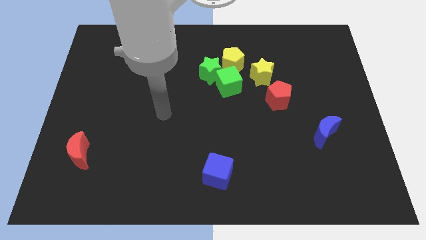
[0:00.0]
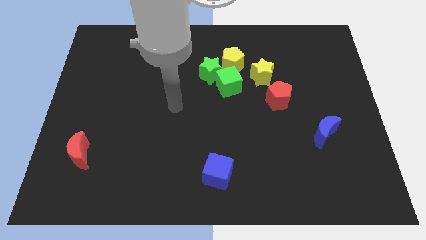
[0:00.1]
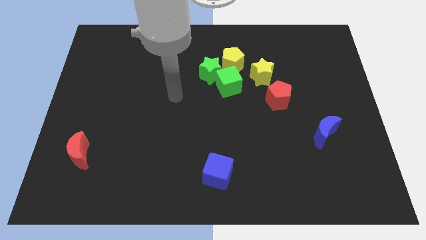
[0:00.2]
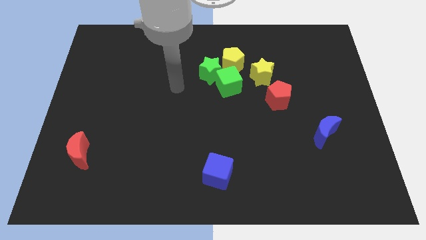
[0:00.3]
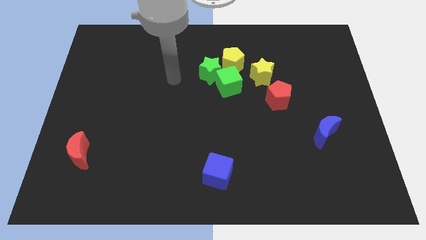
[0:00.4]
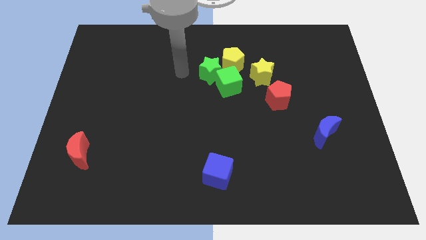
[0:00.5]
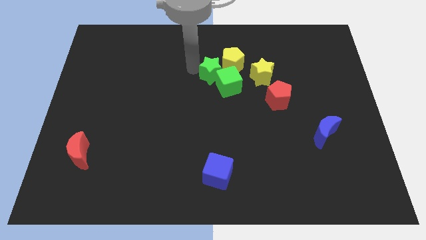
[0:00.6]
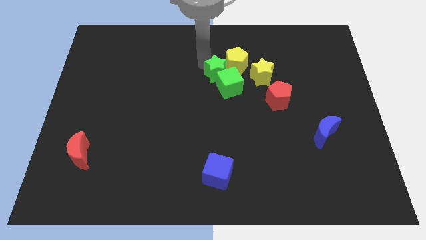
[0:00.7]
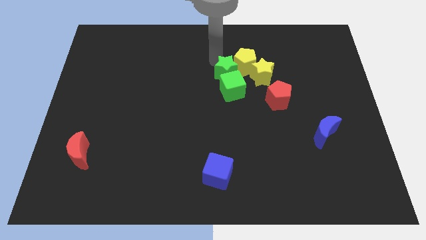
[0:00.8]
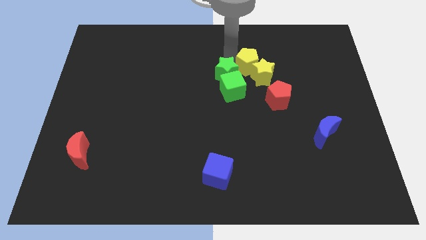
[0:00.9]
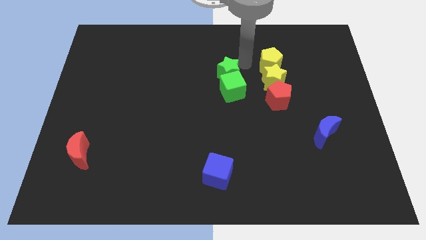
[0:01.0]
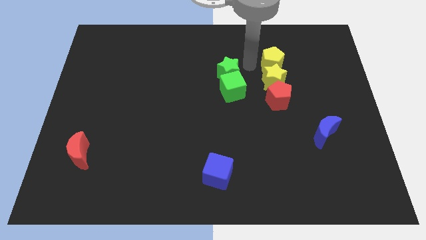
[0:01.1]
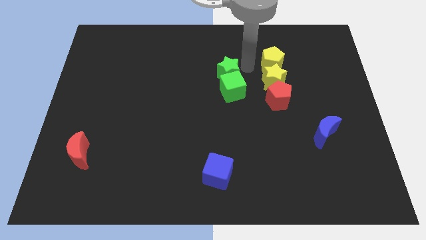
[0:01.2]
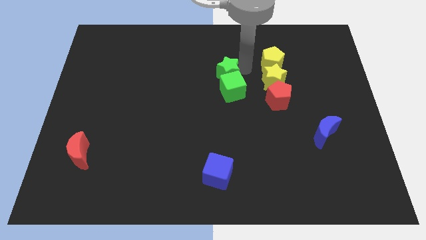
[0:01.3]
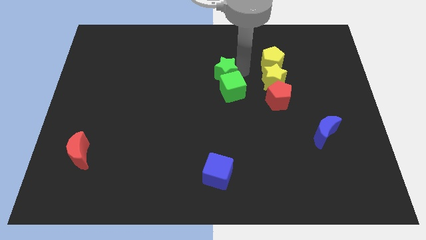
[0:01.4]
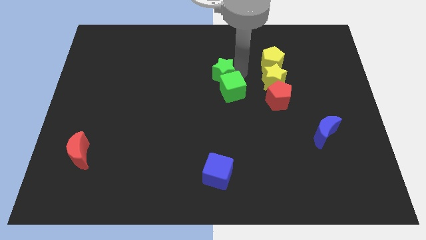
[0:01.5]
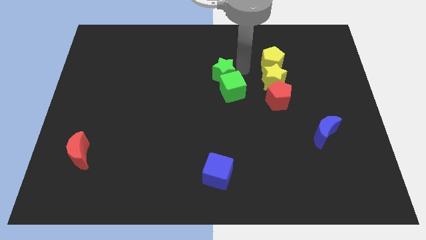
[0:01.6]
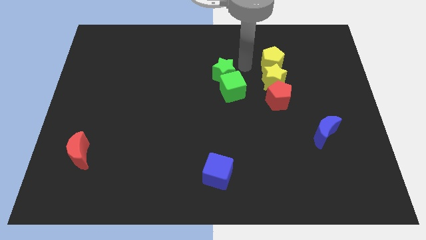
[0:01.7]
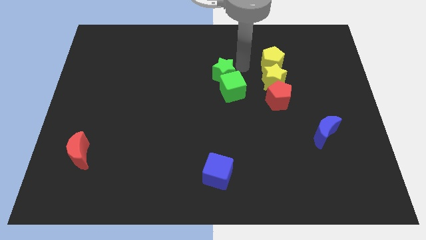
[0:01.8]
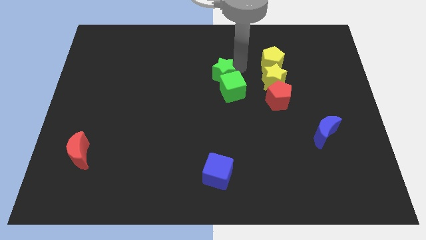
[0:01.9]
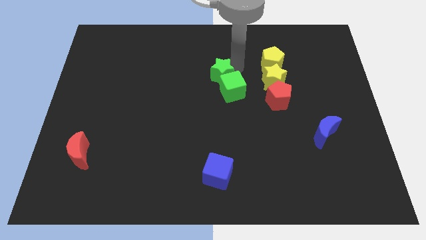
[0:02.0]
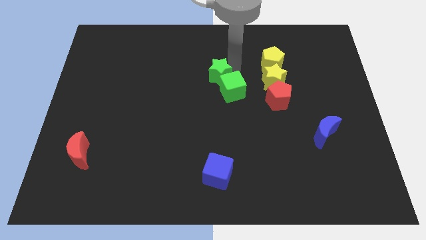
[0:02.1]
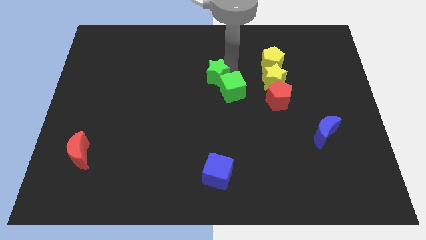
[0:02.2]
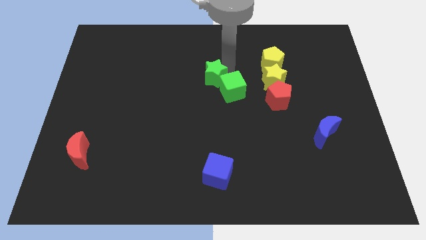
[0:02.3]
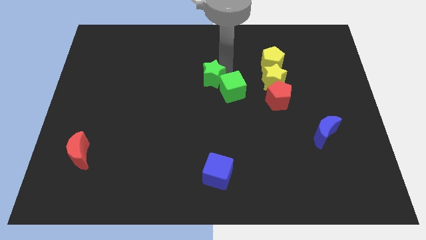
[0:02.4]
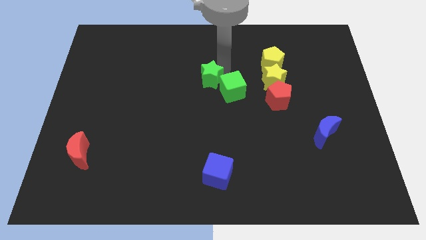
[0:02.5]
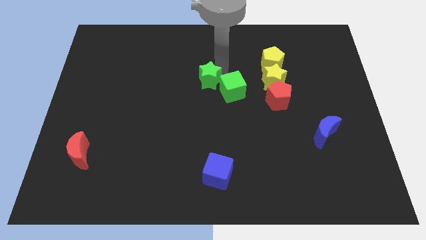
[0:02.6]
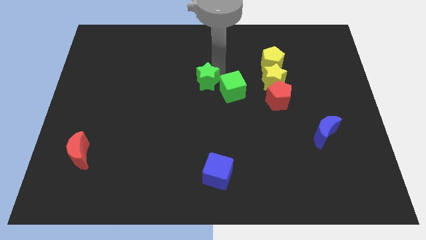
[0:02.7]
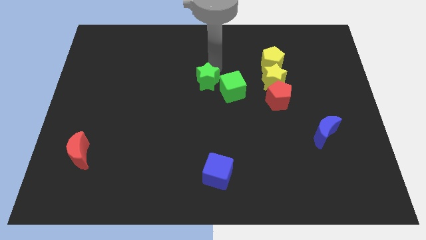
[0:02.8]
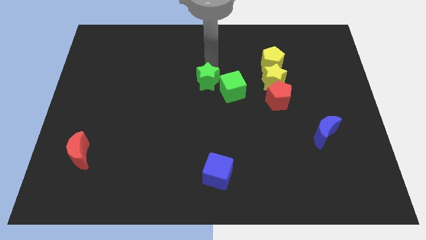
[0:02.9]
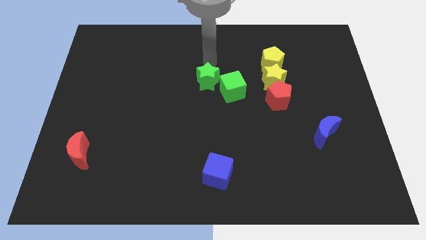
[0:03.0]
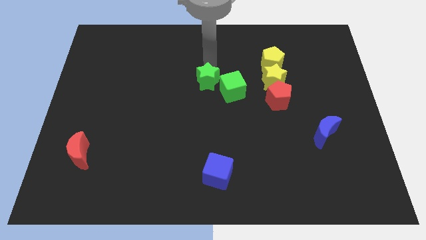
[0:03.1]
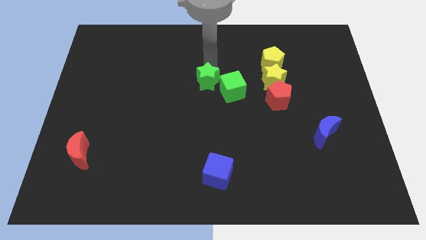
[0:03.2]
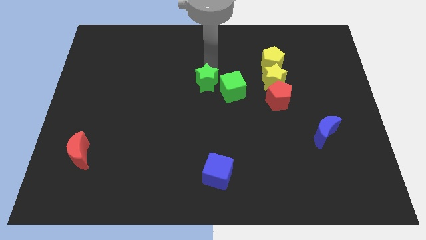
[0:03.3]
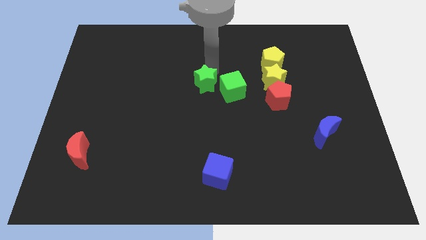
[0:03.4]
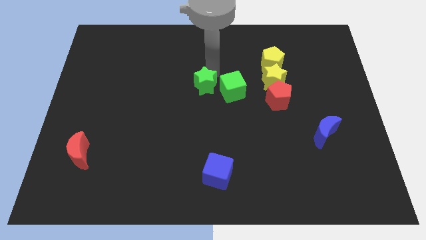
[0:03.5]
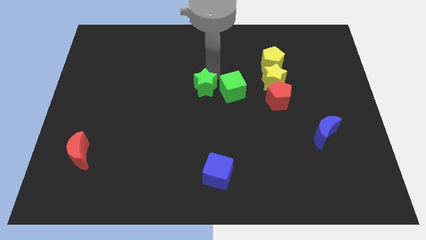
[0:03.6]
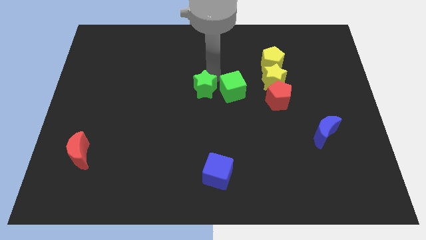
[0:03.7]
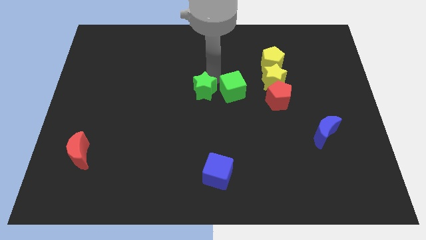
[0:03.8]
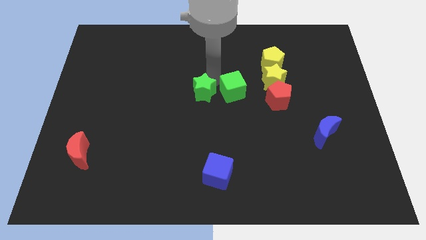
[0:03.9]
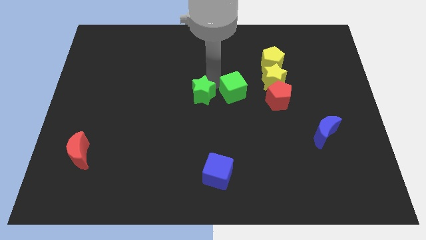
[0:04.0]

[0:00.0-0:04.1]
slightly push the green star down

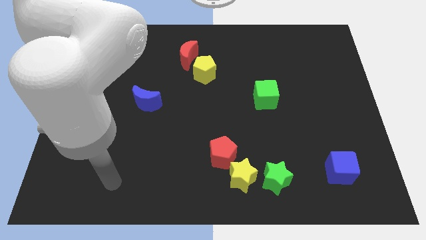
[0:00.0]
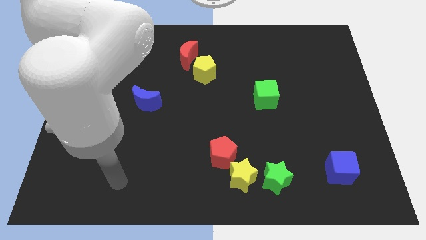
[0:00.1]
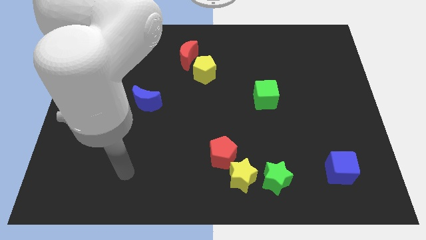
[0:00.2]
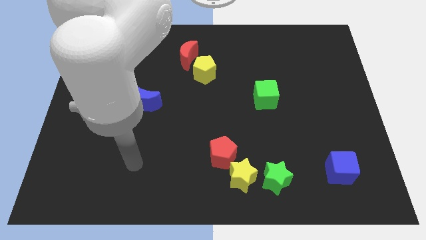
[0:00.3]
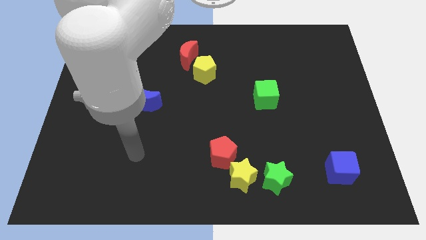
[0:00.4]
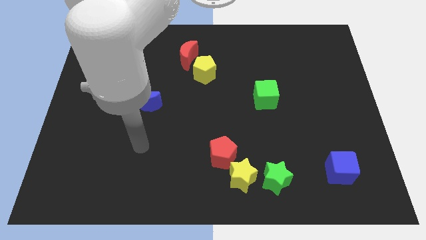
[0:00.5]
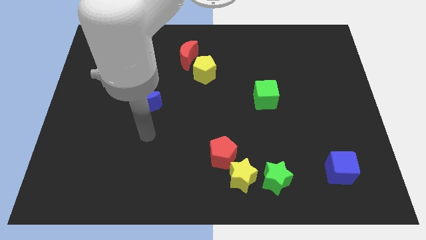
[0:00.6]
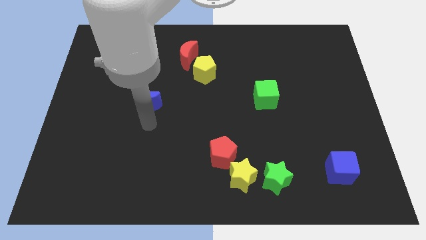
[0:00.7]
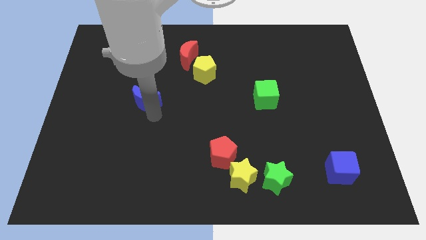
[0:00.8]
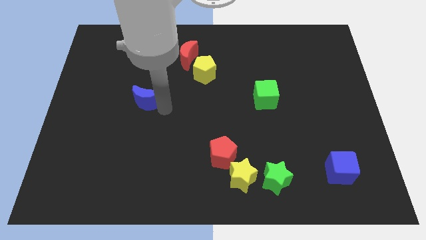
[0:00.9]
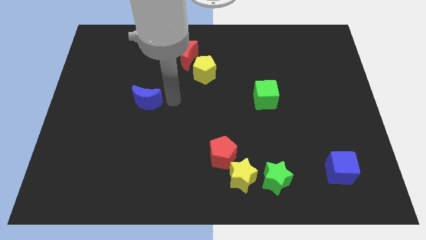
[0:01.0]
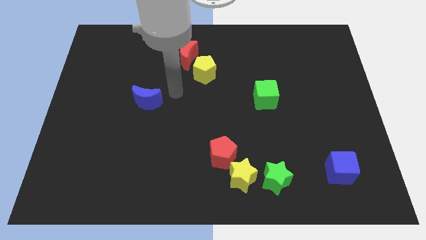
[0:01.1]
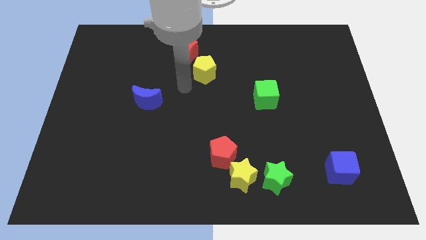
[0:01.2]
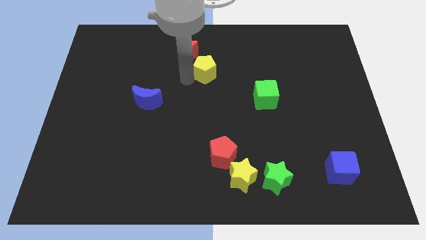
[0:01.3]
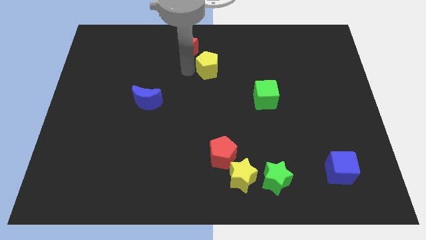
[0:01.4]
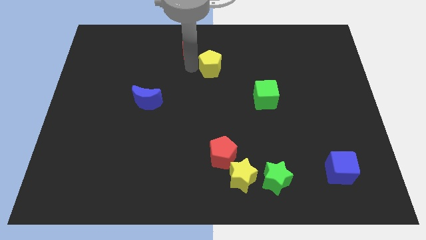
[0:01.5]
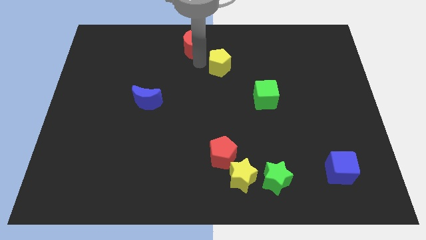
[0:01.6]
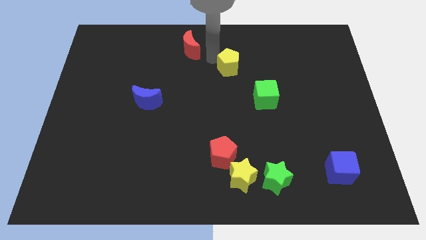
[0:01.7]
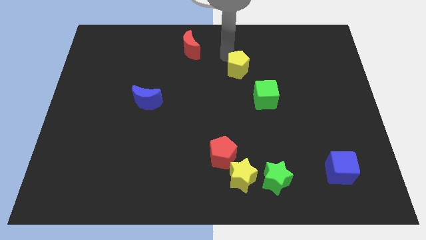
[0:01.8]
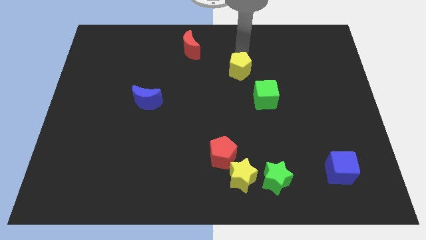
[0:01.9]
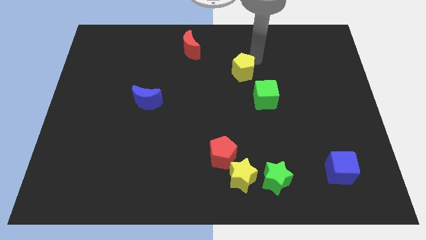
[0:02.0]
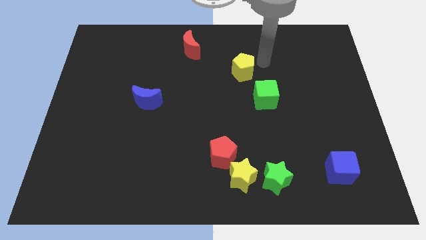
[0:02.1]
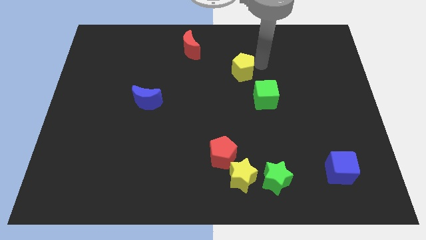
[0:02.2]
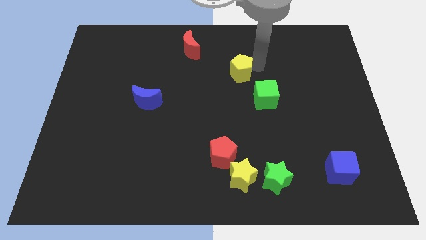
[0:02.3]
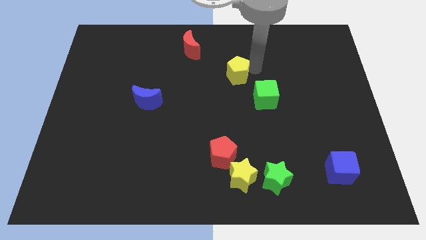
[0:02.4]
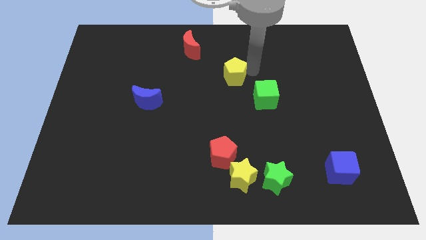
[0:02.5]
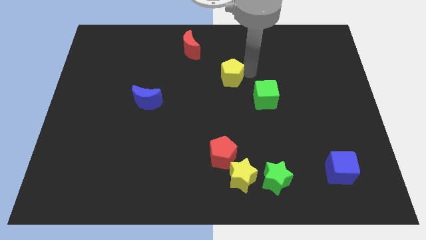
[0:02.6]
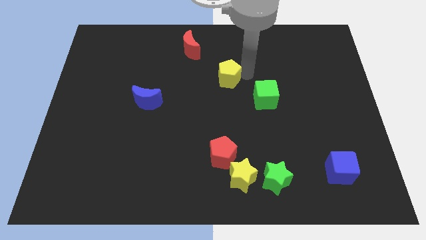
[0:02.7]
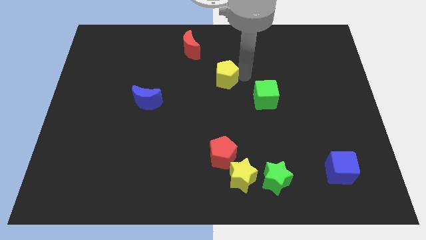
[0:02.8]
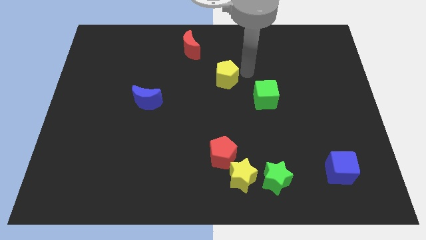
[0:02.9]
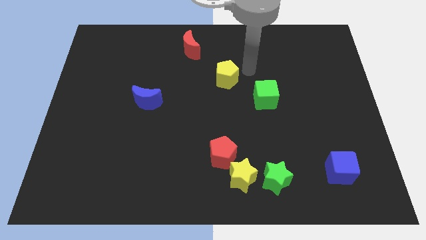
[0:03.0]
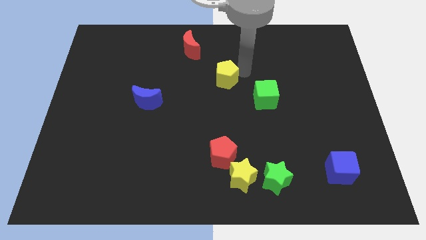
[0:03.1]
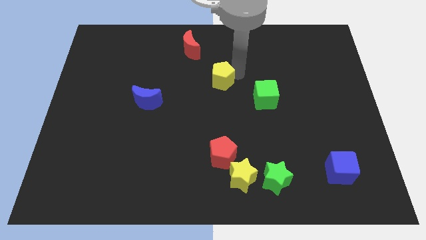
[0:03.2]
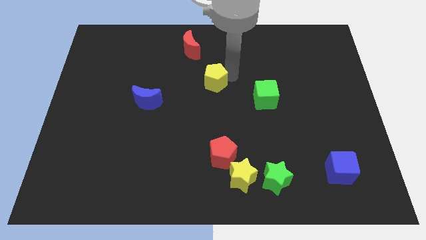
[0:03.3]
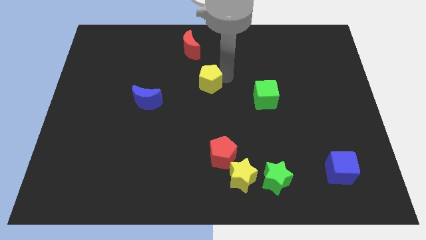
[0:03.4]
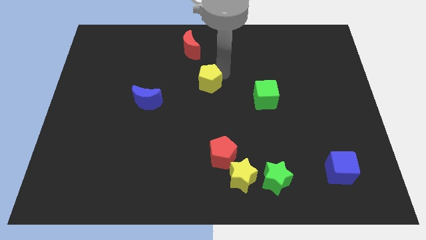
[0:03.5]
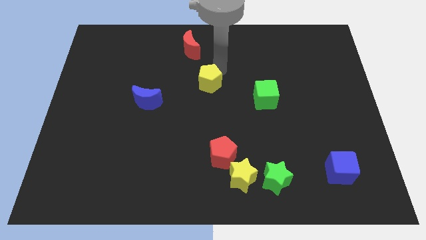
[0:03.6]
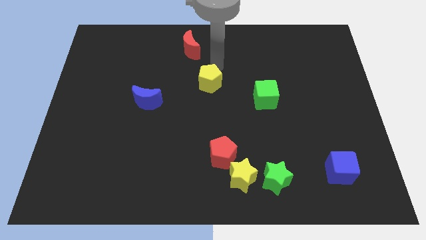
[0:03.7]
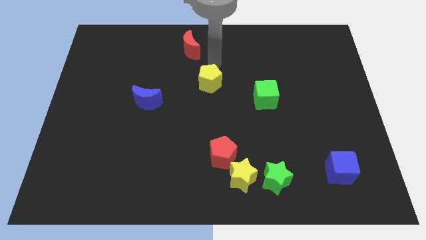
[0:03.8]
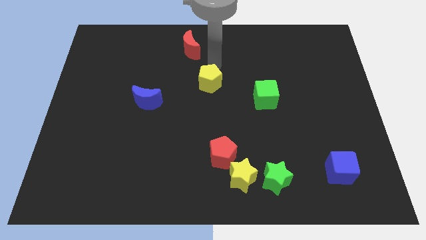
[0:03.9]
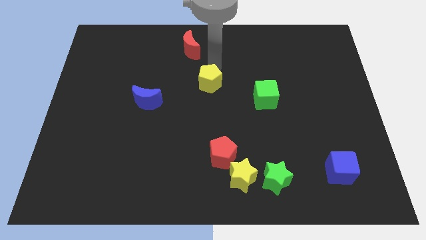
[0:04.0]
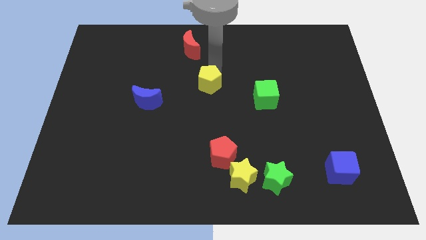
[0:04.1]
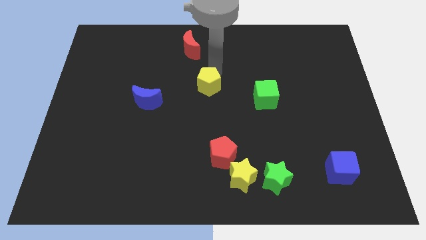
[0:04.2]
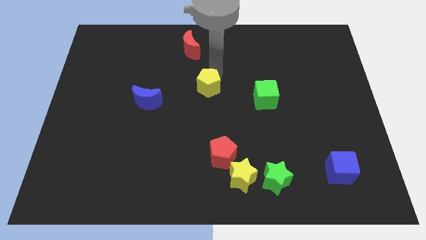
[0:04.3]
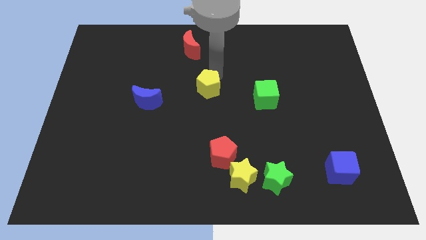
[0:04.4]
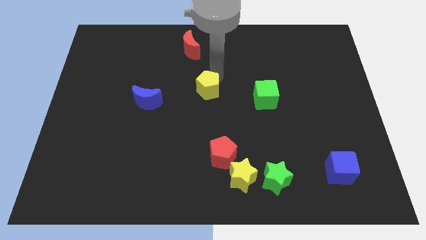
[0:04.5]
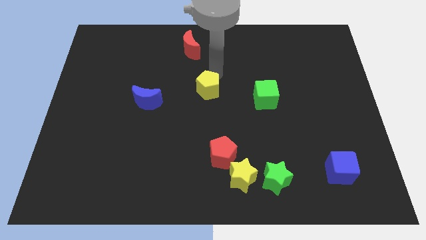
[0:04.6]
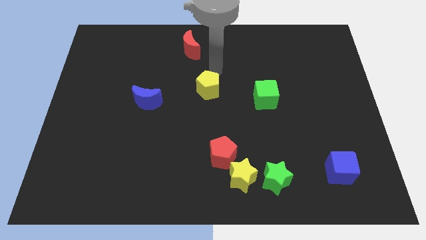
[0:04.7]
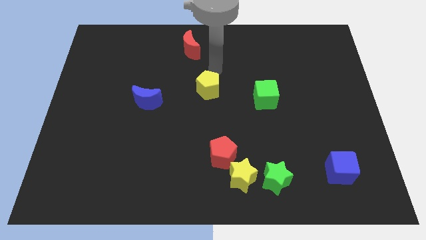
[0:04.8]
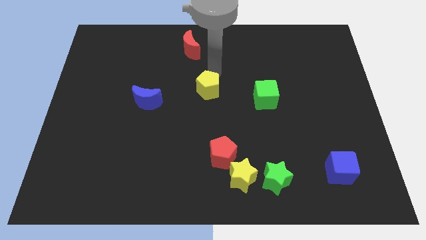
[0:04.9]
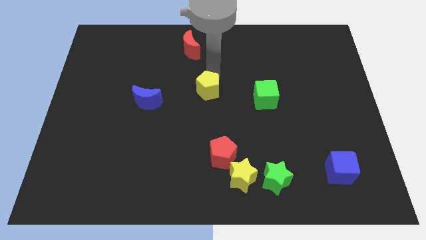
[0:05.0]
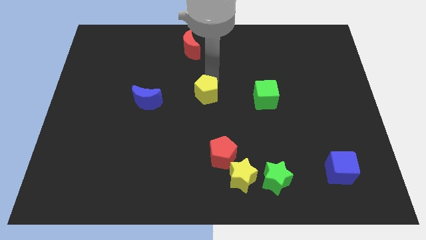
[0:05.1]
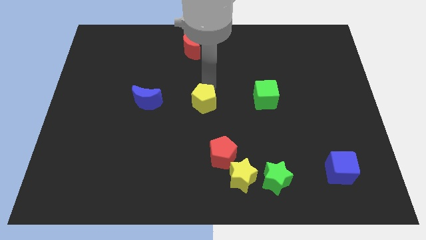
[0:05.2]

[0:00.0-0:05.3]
move the yellow pentagon a little down
